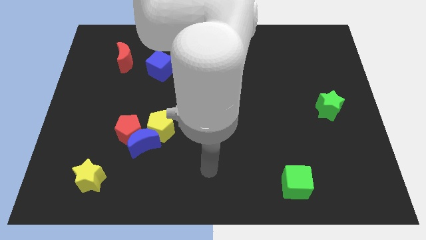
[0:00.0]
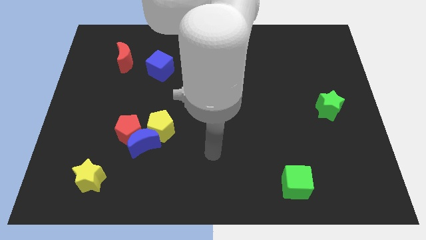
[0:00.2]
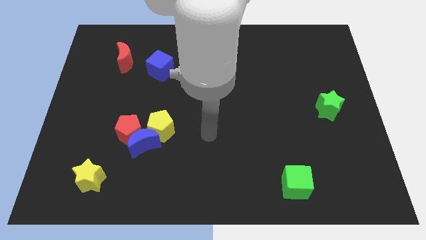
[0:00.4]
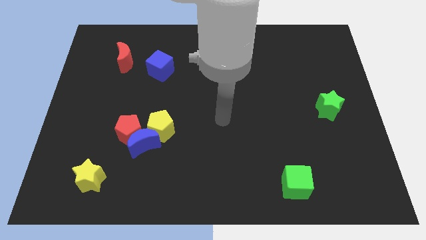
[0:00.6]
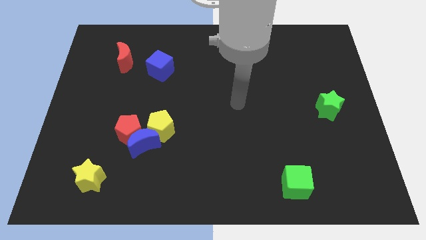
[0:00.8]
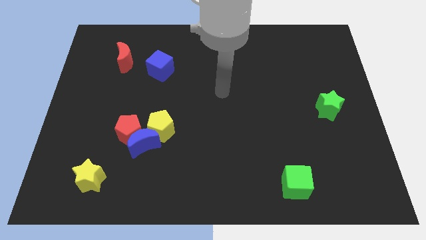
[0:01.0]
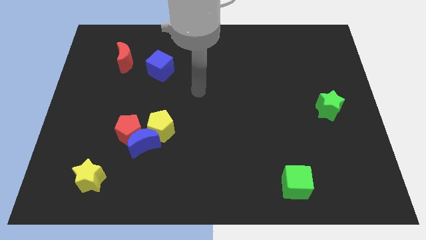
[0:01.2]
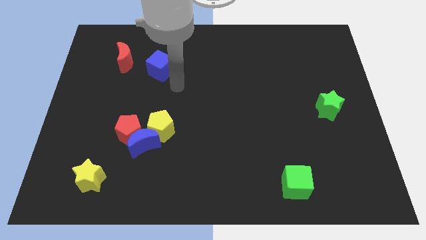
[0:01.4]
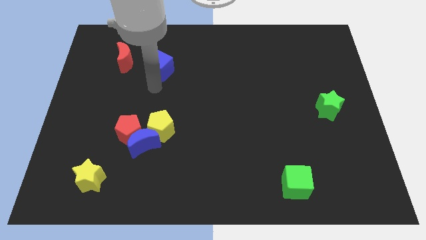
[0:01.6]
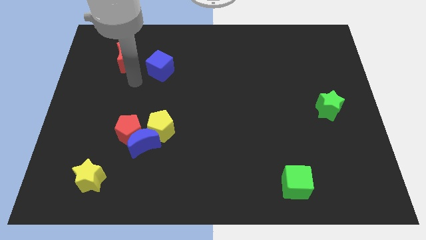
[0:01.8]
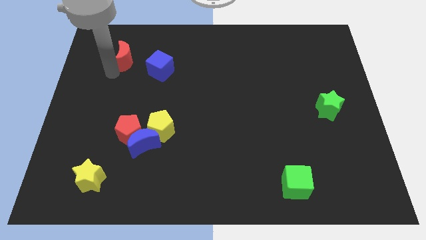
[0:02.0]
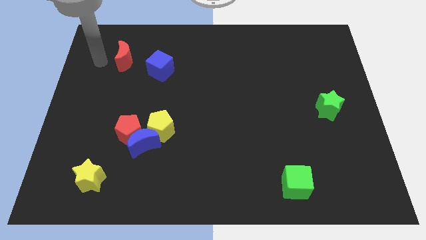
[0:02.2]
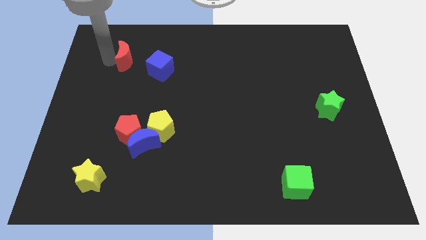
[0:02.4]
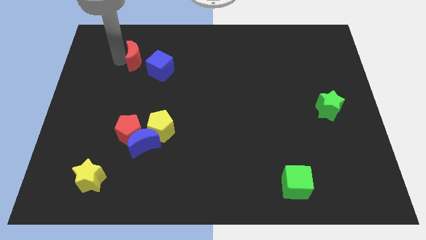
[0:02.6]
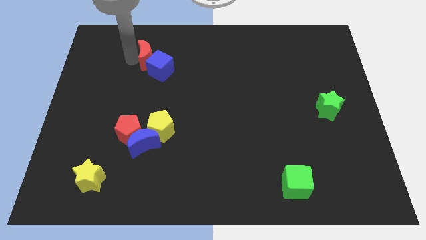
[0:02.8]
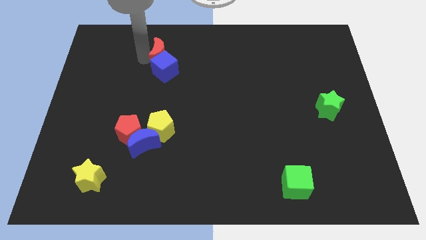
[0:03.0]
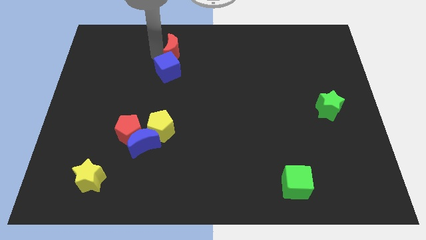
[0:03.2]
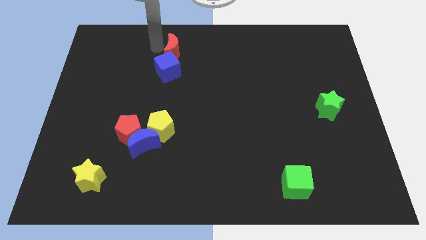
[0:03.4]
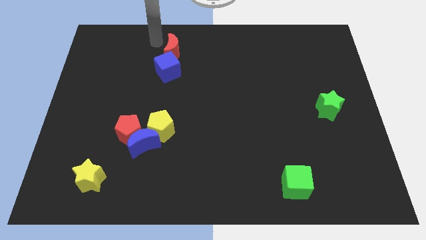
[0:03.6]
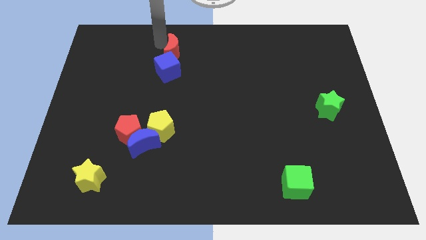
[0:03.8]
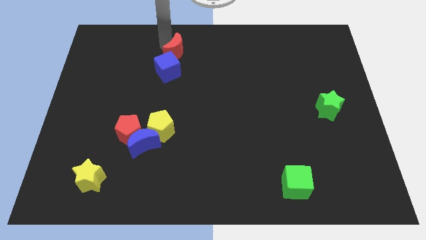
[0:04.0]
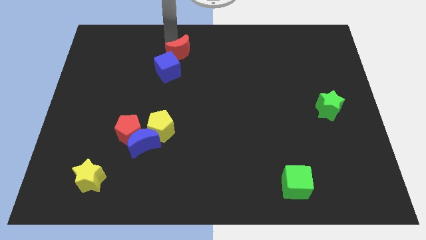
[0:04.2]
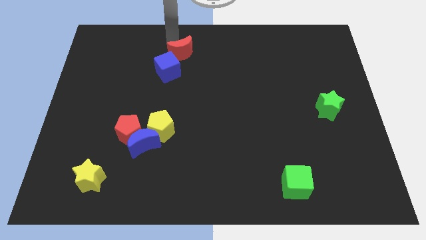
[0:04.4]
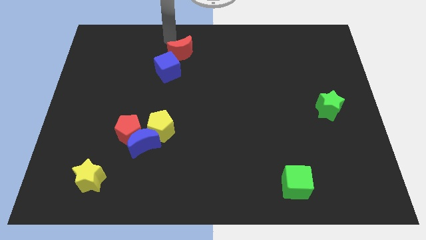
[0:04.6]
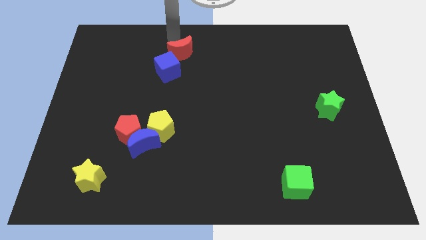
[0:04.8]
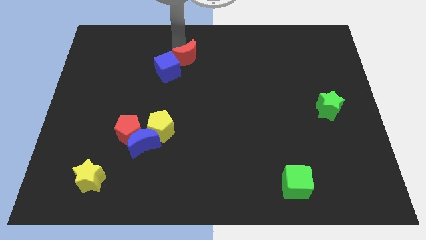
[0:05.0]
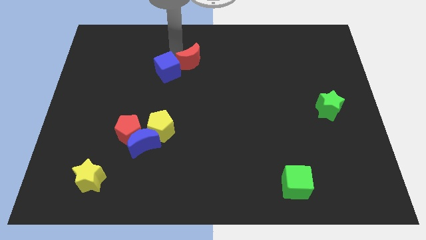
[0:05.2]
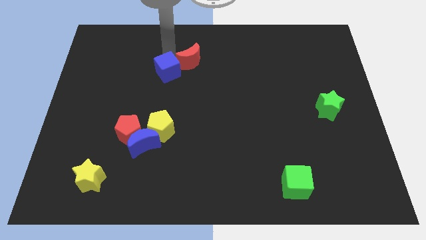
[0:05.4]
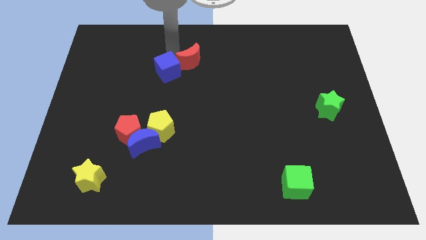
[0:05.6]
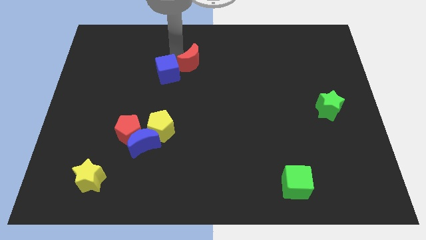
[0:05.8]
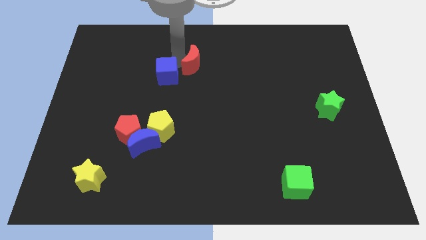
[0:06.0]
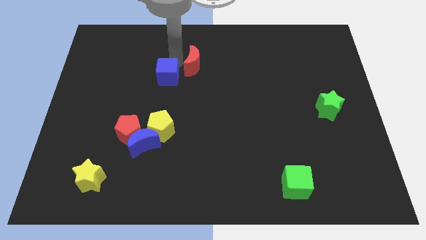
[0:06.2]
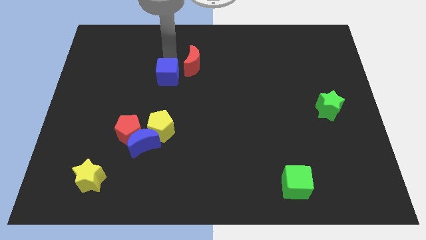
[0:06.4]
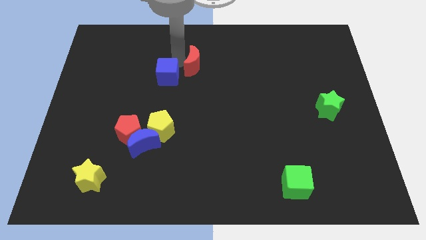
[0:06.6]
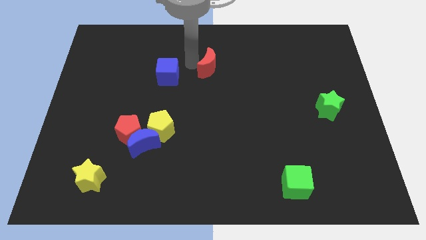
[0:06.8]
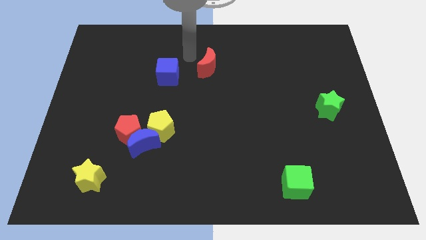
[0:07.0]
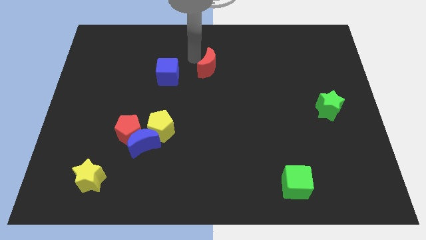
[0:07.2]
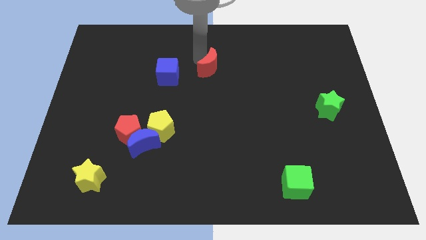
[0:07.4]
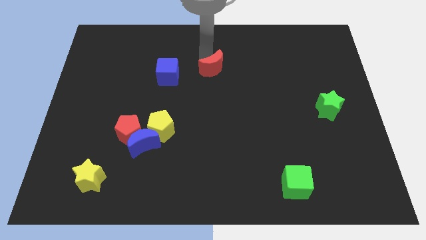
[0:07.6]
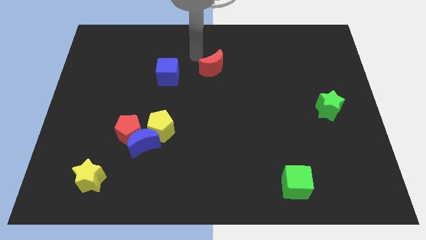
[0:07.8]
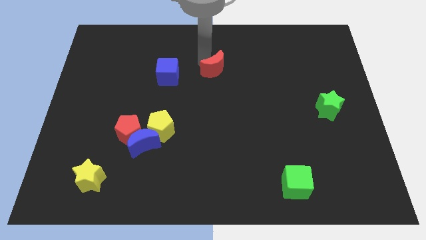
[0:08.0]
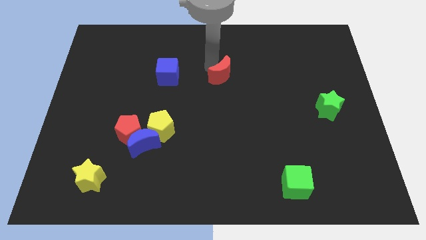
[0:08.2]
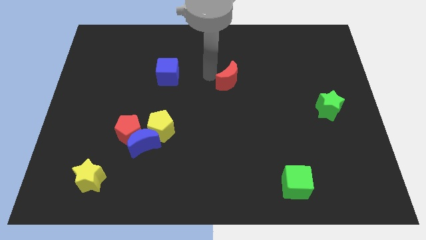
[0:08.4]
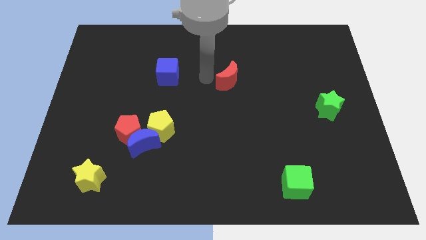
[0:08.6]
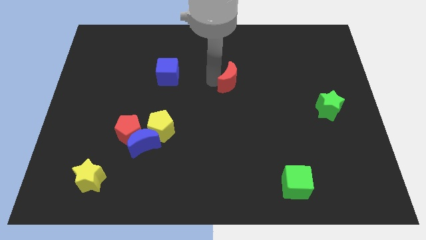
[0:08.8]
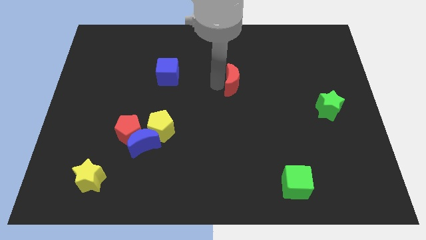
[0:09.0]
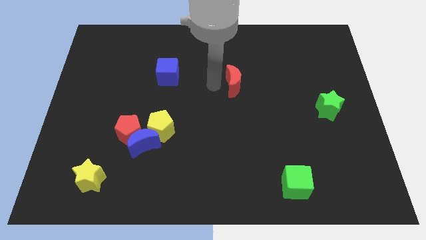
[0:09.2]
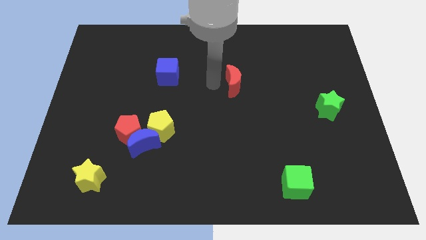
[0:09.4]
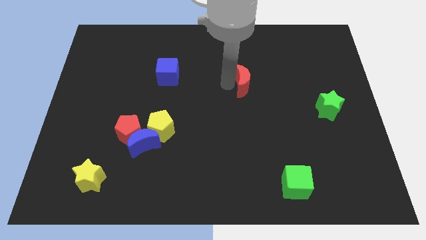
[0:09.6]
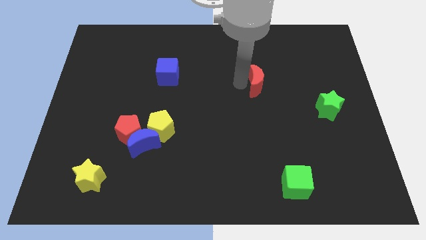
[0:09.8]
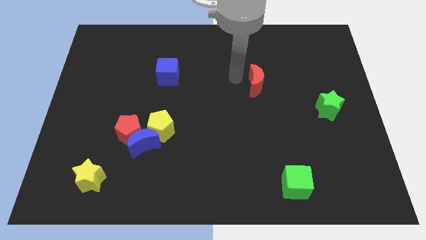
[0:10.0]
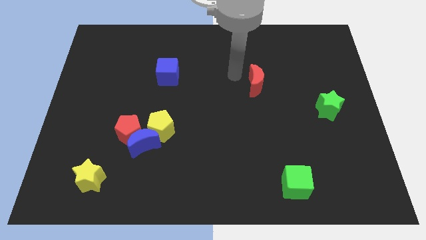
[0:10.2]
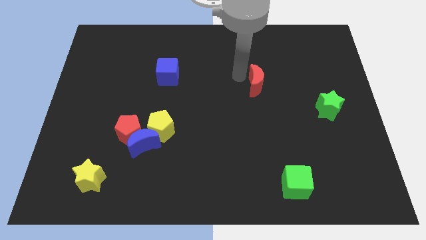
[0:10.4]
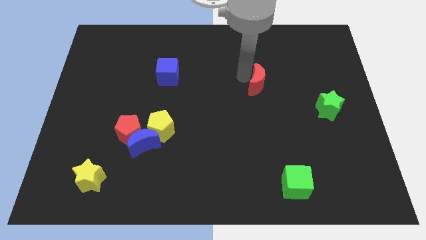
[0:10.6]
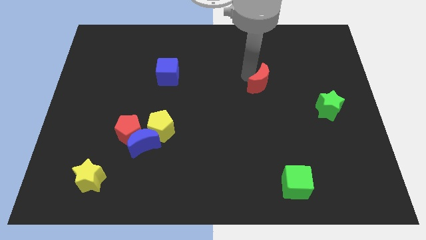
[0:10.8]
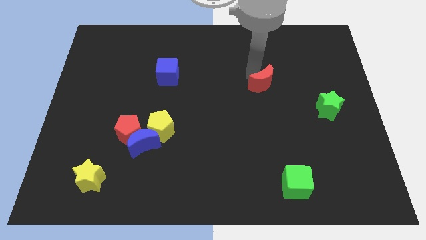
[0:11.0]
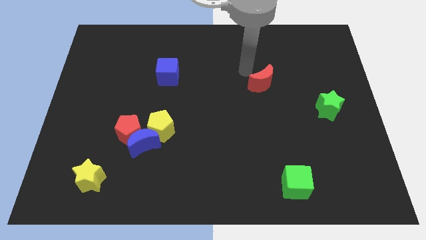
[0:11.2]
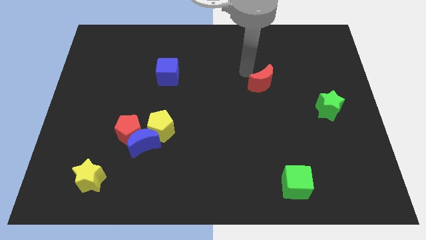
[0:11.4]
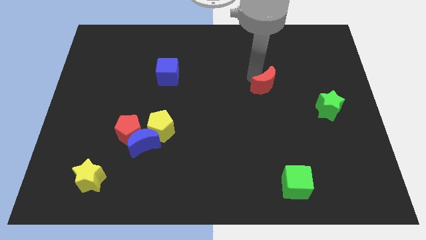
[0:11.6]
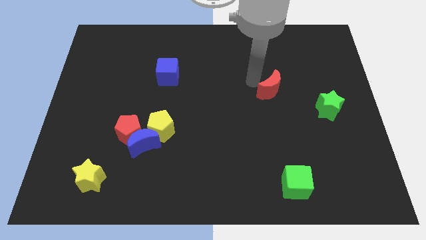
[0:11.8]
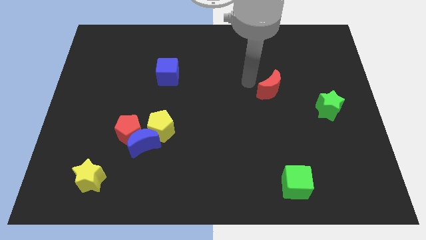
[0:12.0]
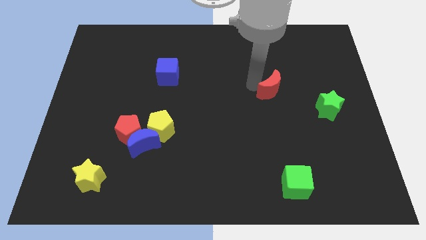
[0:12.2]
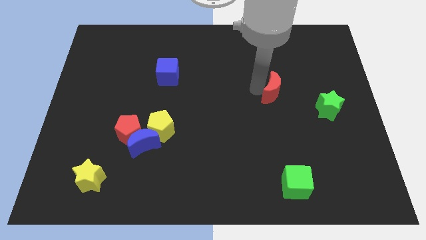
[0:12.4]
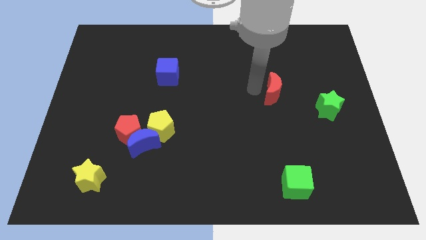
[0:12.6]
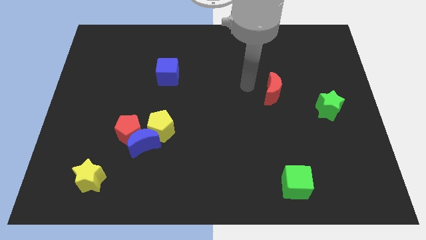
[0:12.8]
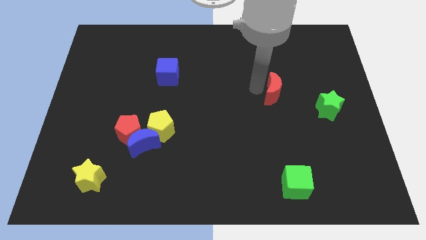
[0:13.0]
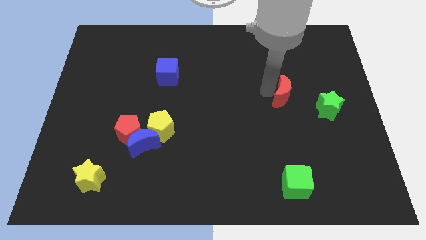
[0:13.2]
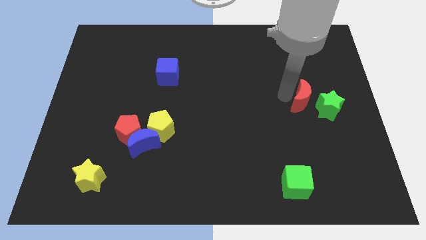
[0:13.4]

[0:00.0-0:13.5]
push the red moon to the green star
